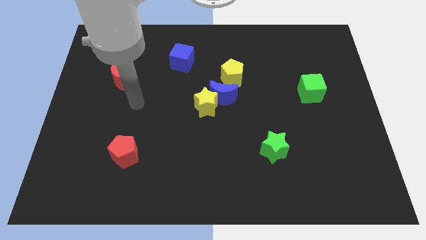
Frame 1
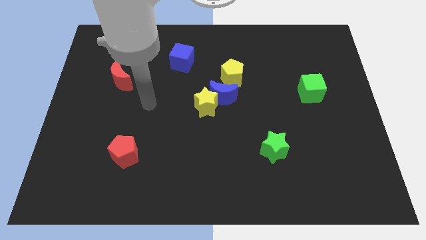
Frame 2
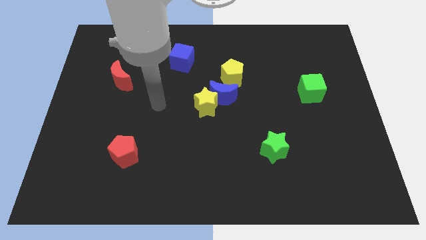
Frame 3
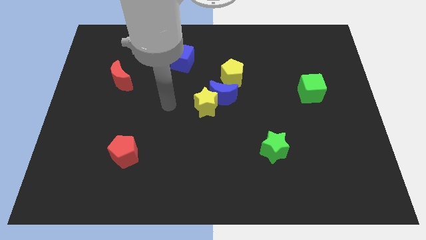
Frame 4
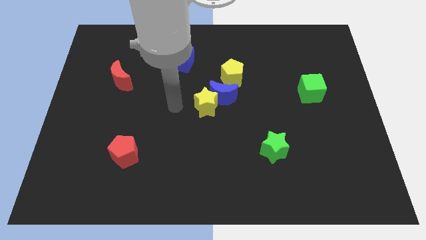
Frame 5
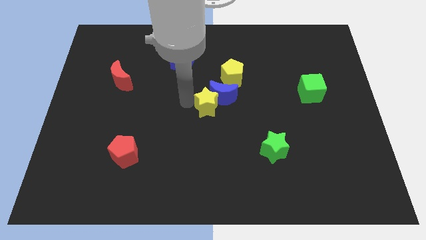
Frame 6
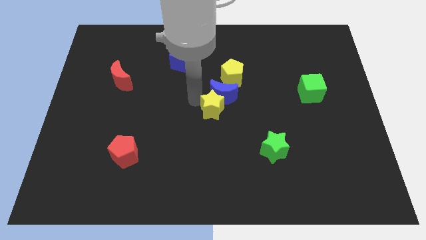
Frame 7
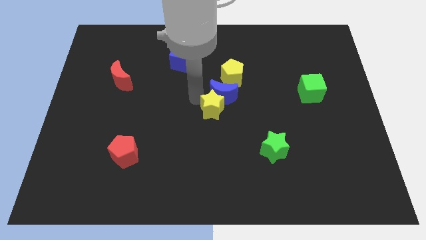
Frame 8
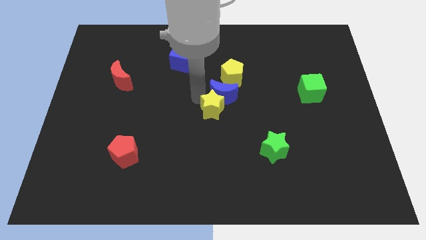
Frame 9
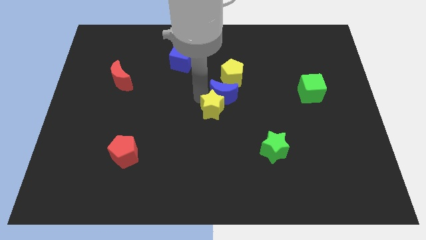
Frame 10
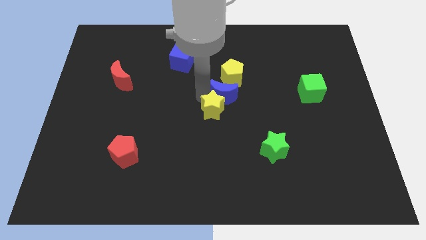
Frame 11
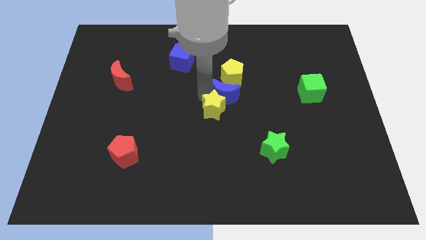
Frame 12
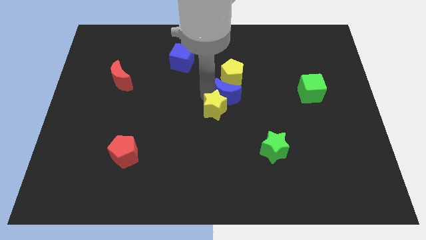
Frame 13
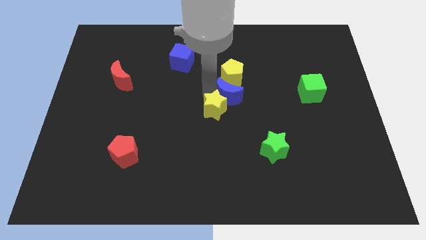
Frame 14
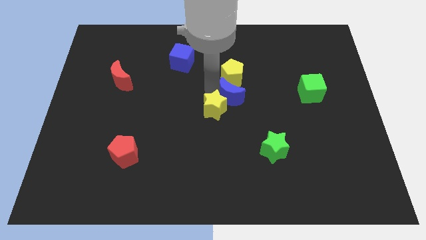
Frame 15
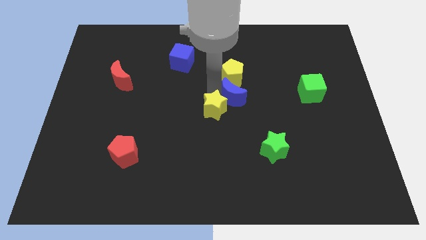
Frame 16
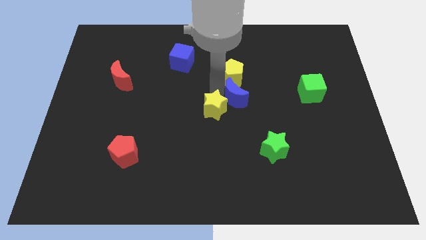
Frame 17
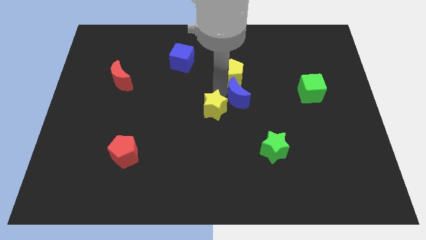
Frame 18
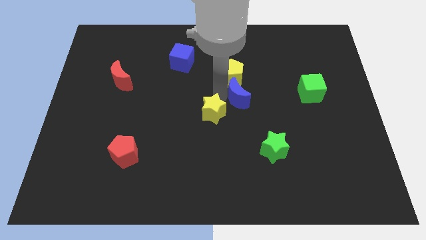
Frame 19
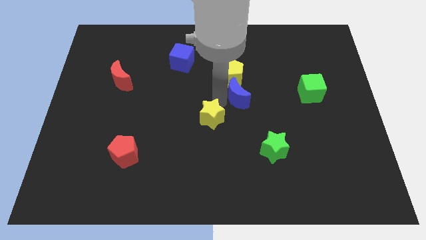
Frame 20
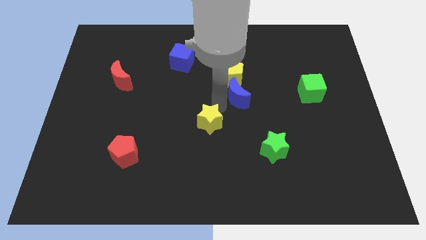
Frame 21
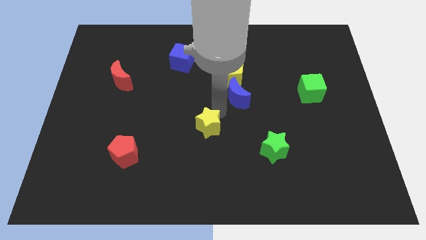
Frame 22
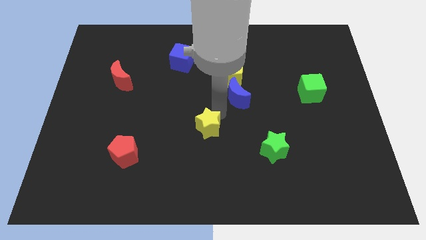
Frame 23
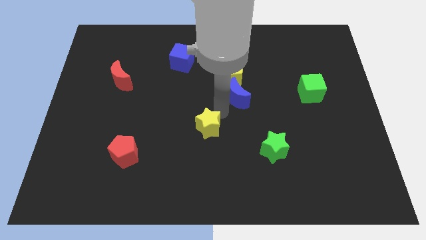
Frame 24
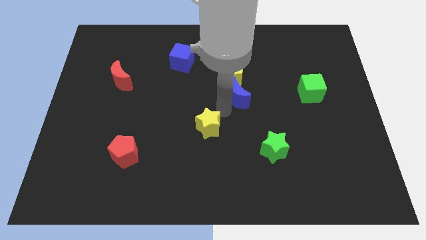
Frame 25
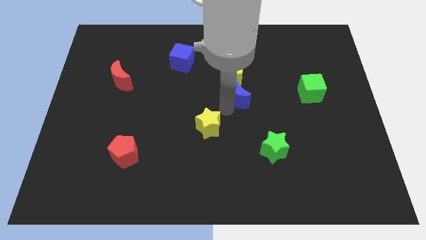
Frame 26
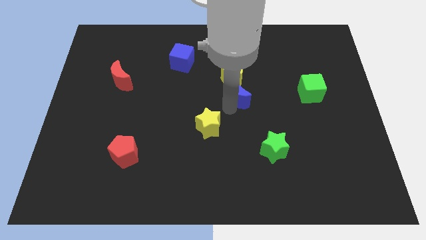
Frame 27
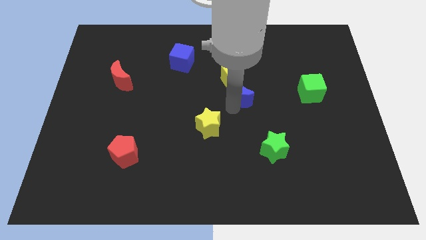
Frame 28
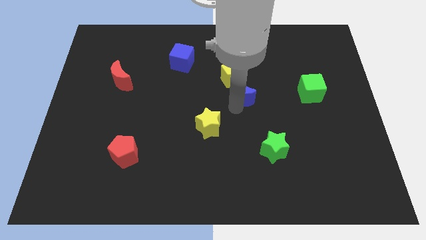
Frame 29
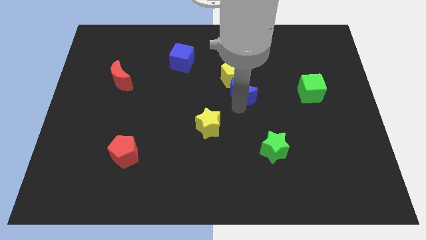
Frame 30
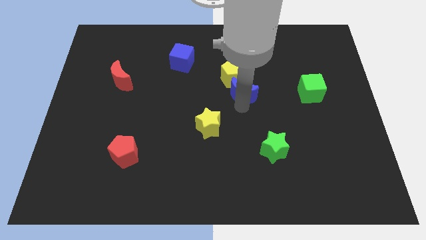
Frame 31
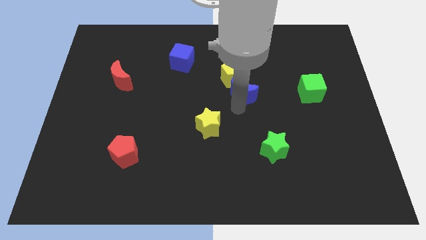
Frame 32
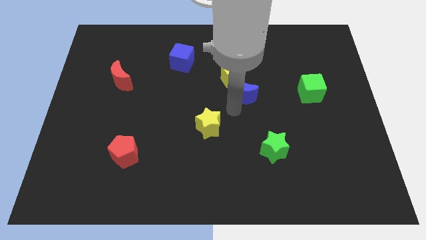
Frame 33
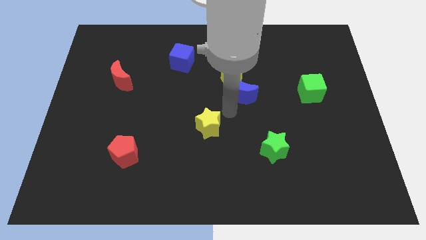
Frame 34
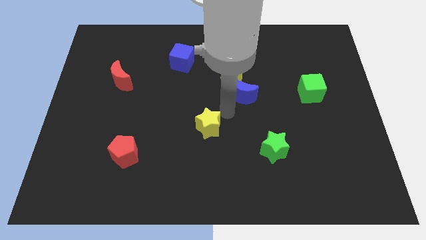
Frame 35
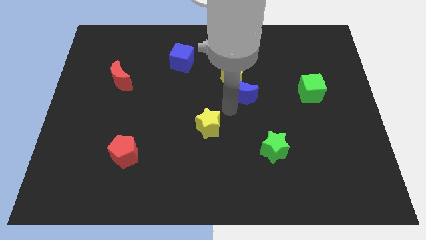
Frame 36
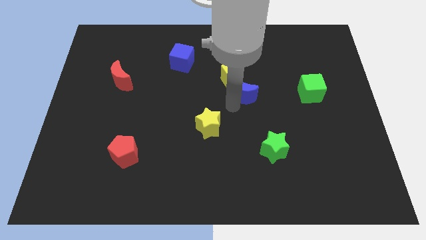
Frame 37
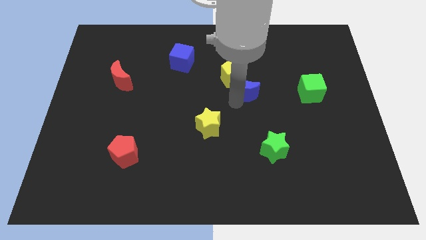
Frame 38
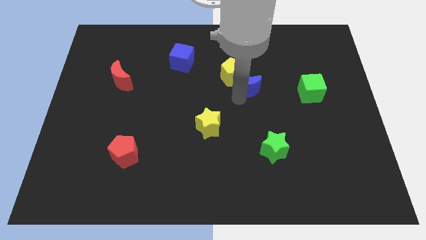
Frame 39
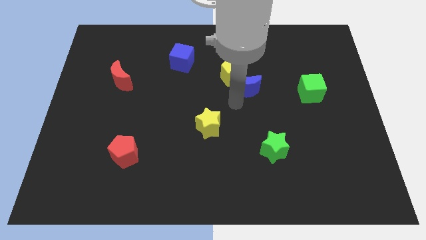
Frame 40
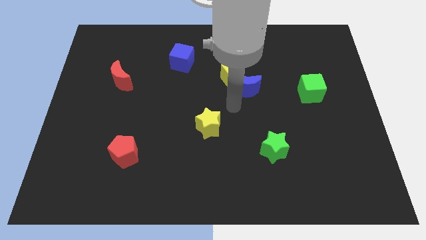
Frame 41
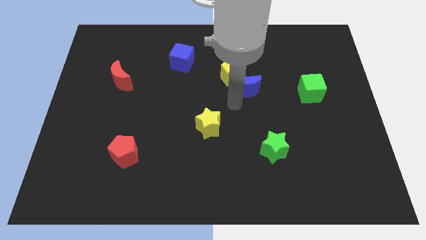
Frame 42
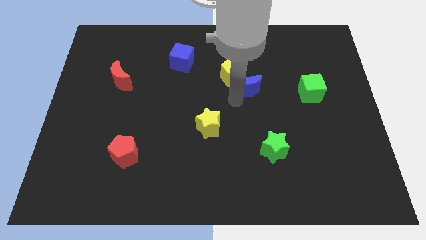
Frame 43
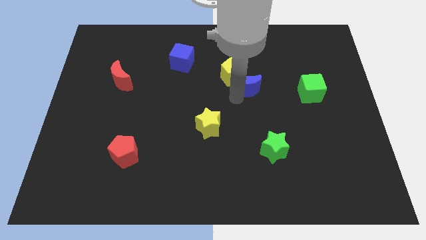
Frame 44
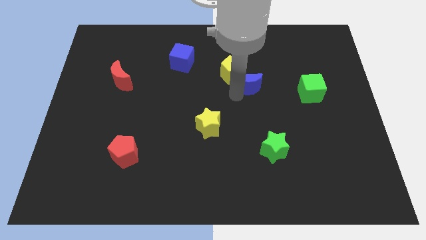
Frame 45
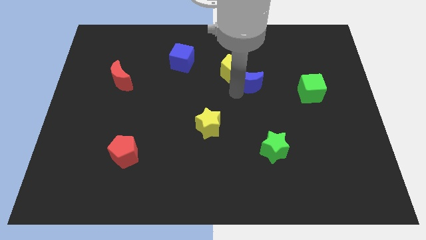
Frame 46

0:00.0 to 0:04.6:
slide the blue moon slightly upwards and right

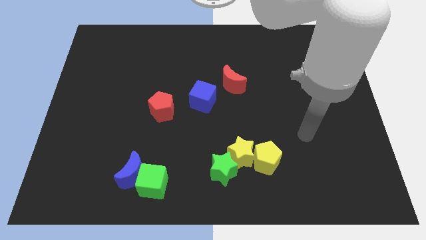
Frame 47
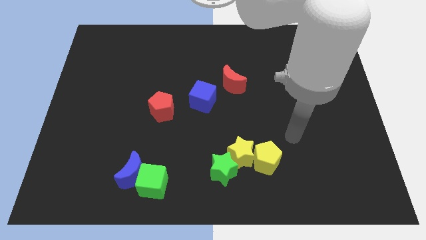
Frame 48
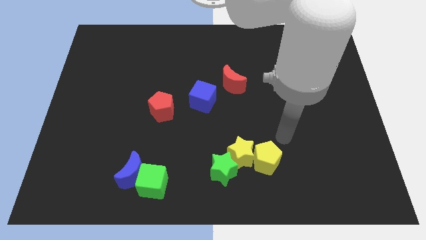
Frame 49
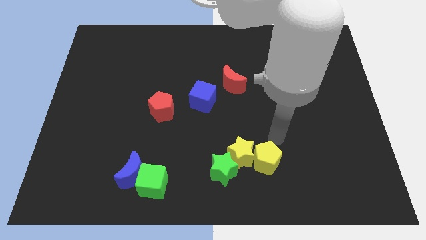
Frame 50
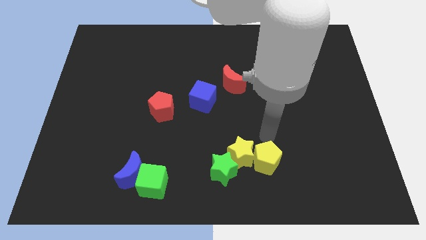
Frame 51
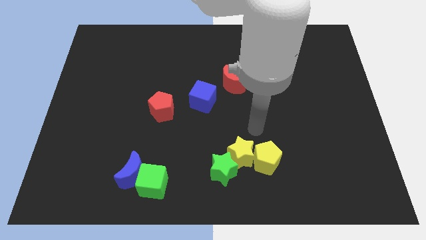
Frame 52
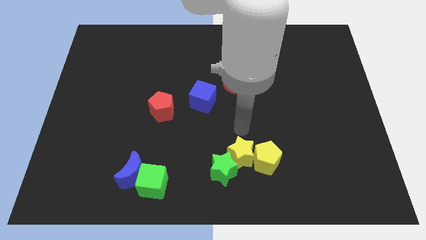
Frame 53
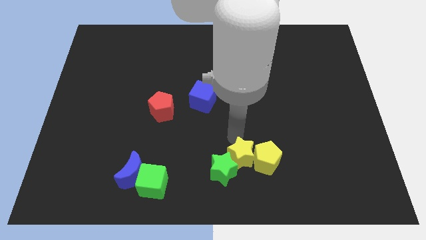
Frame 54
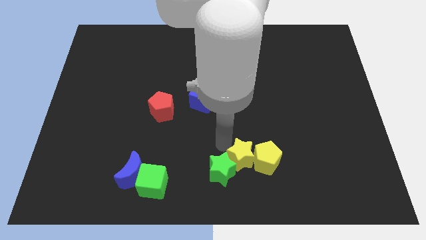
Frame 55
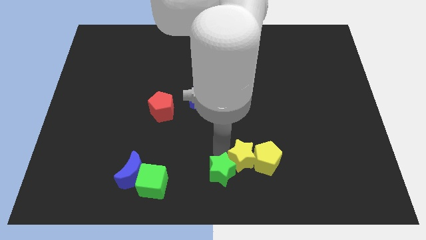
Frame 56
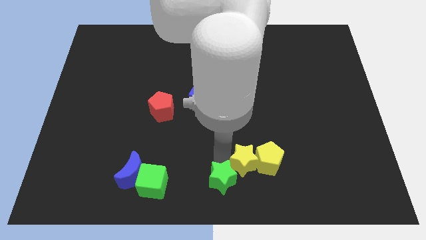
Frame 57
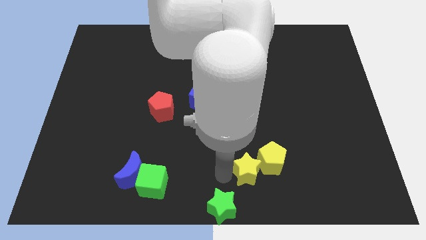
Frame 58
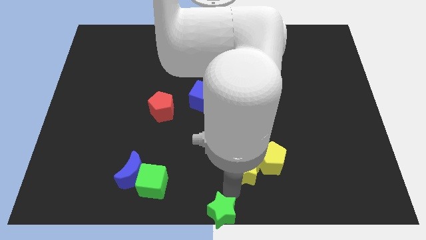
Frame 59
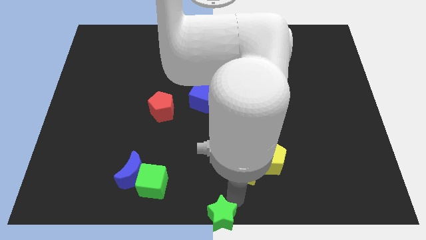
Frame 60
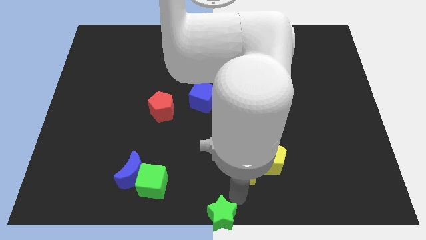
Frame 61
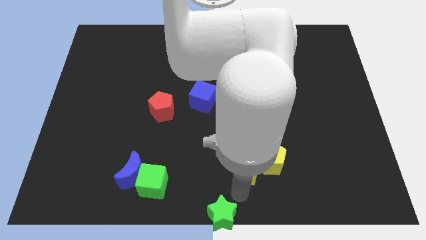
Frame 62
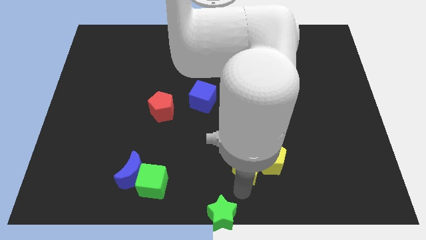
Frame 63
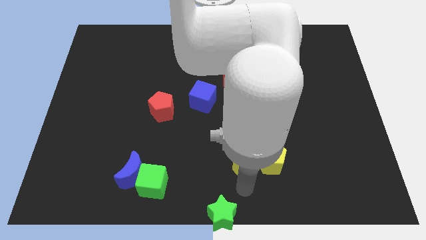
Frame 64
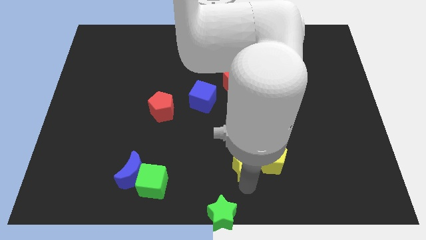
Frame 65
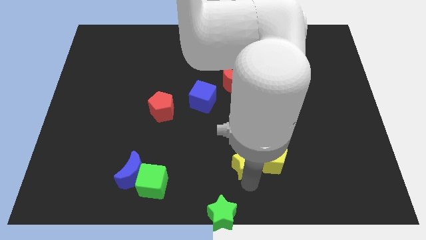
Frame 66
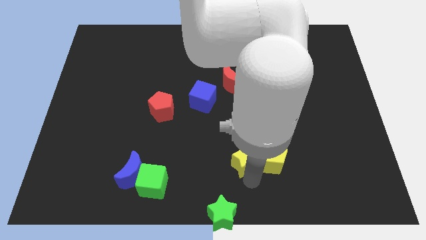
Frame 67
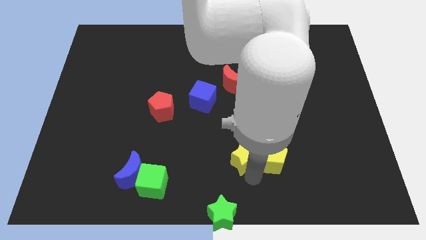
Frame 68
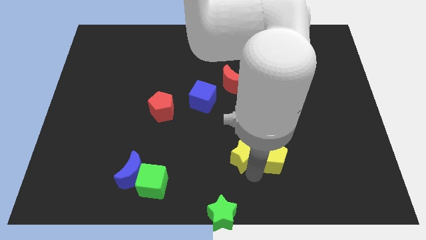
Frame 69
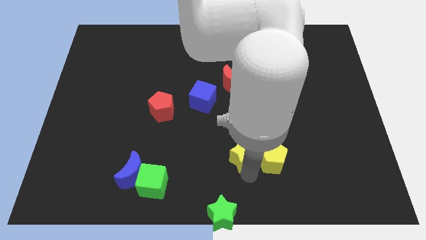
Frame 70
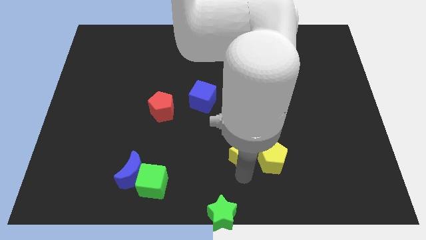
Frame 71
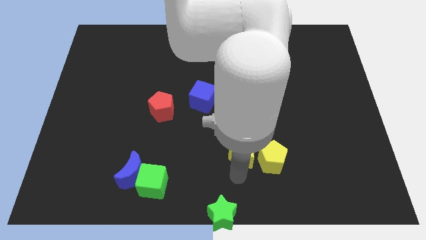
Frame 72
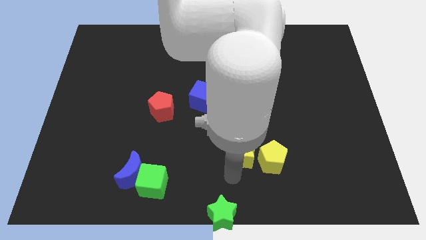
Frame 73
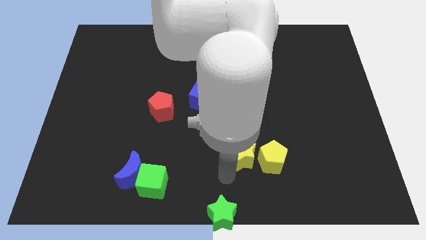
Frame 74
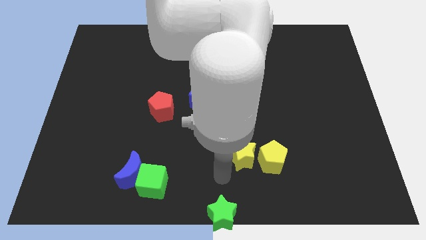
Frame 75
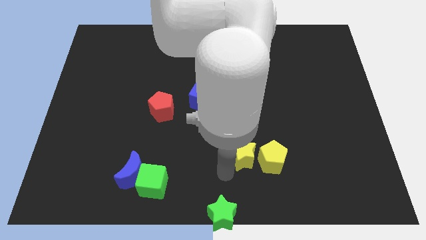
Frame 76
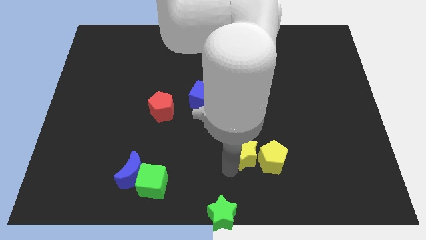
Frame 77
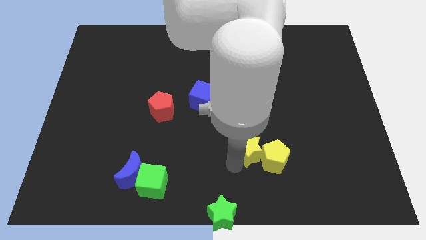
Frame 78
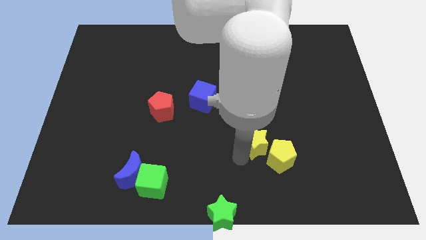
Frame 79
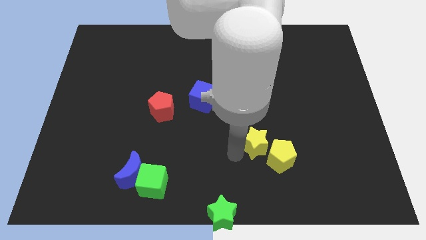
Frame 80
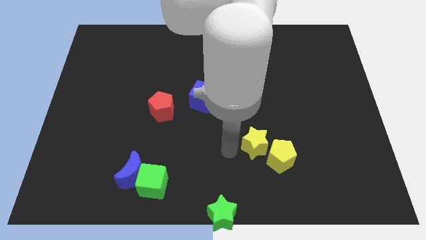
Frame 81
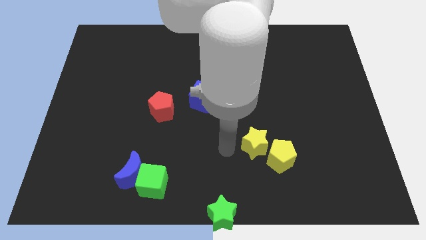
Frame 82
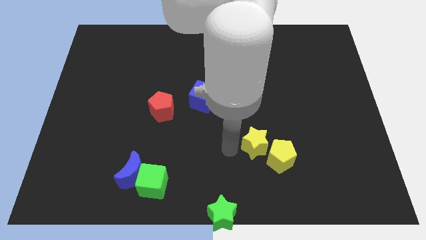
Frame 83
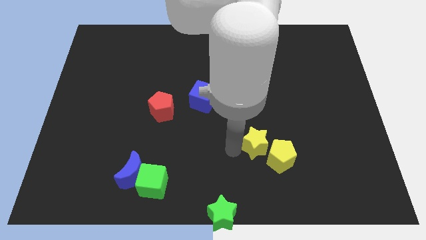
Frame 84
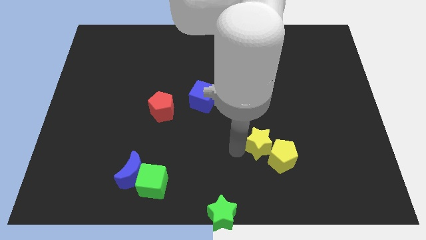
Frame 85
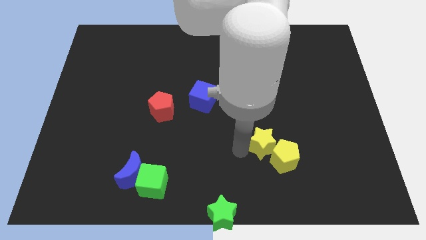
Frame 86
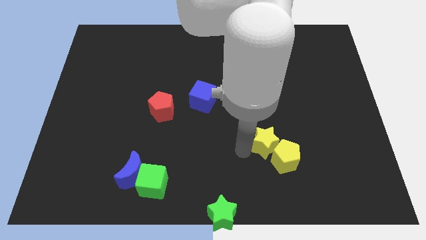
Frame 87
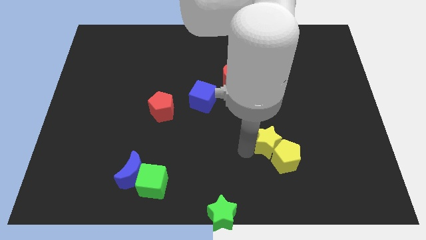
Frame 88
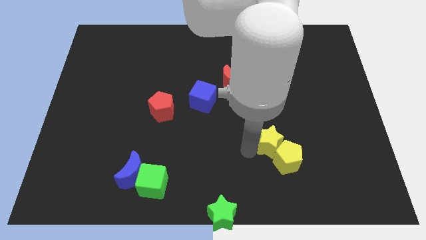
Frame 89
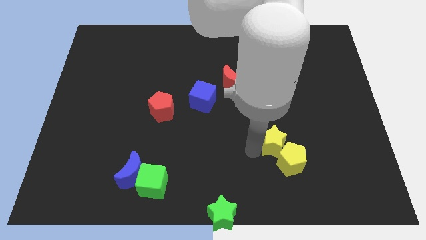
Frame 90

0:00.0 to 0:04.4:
slightly move the yellow star to the right
